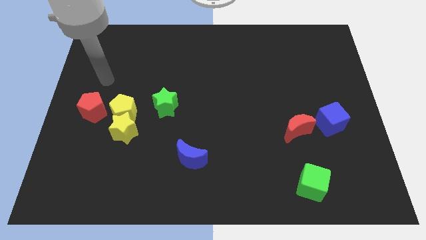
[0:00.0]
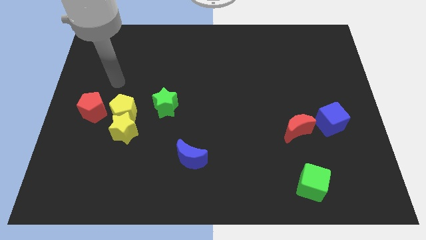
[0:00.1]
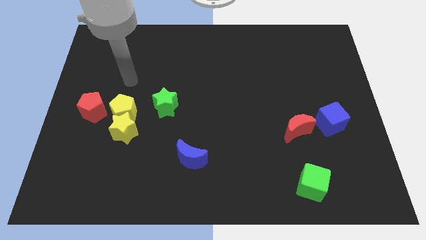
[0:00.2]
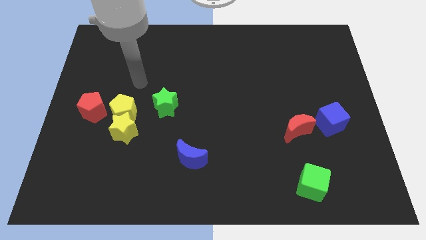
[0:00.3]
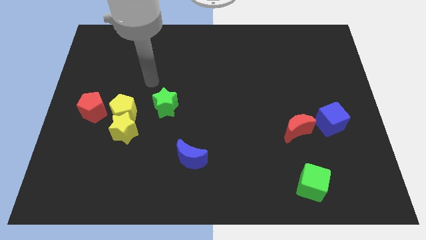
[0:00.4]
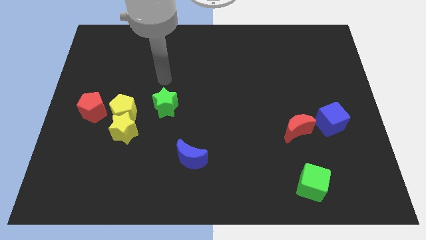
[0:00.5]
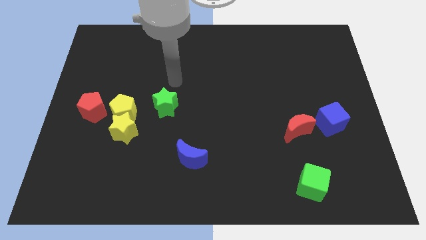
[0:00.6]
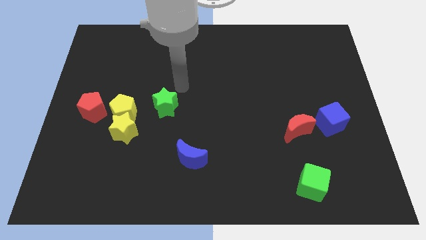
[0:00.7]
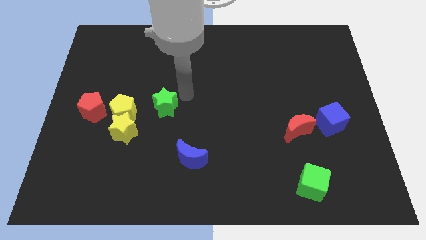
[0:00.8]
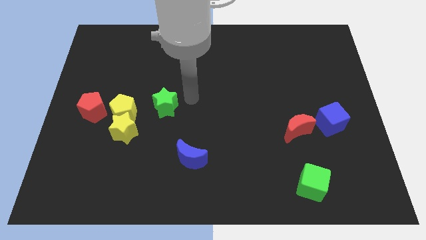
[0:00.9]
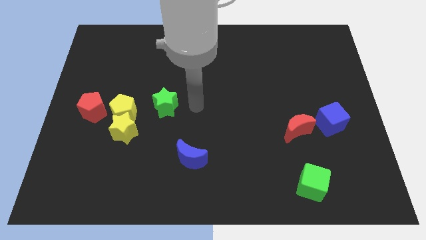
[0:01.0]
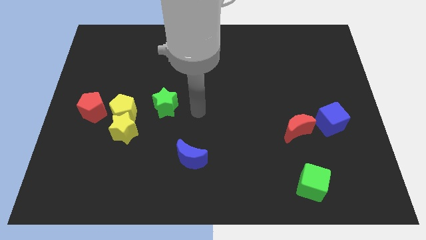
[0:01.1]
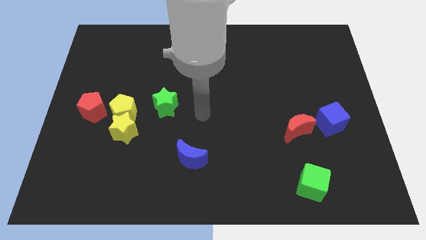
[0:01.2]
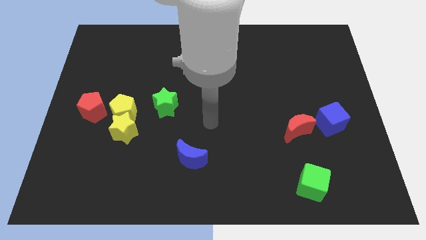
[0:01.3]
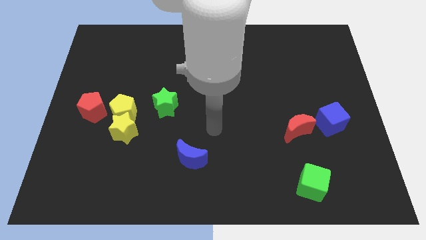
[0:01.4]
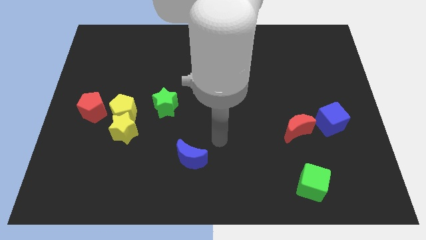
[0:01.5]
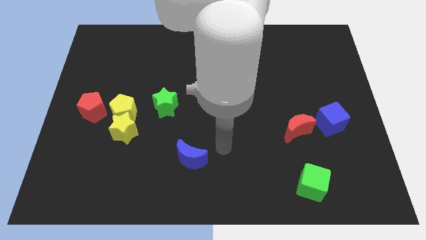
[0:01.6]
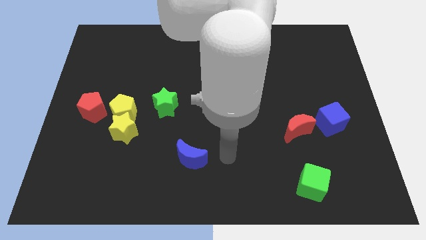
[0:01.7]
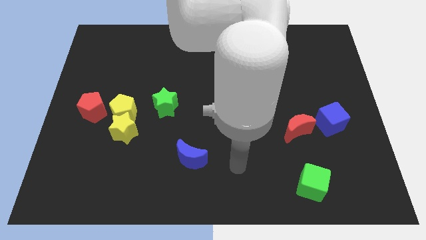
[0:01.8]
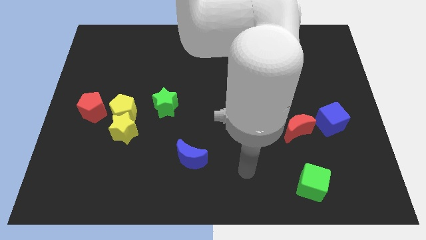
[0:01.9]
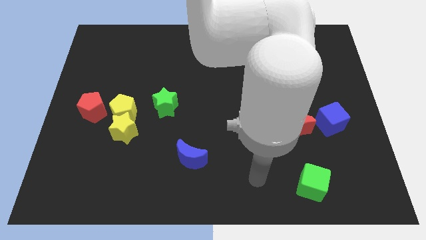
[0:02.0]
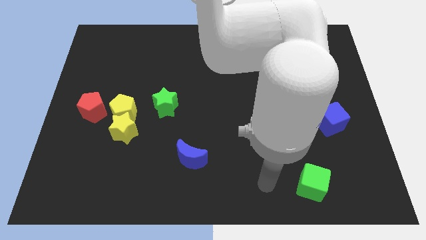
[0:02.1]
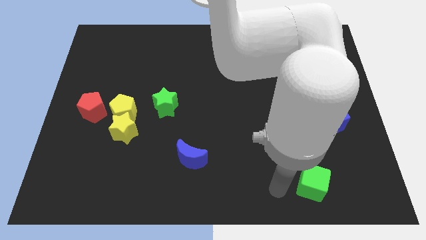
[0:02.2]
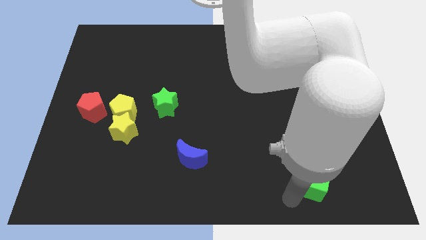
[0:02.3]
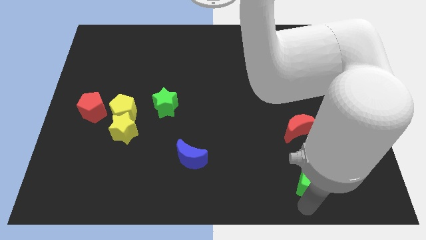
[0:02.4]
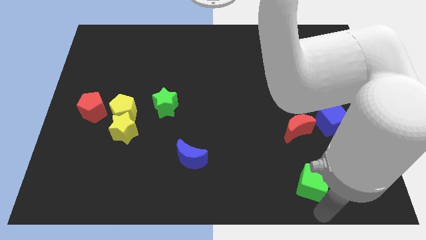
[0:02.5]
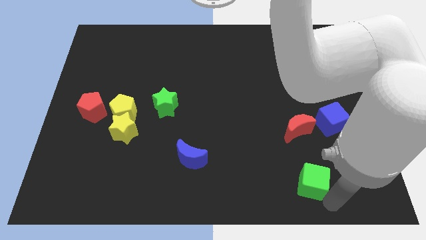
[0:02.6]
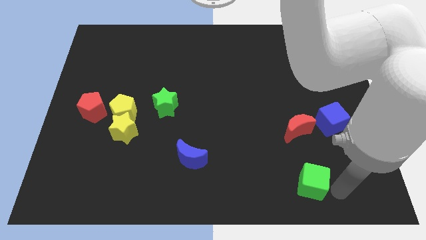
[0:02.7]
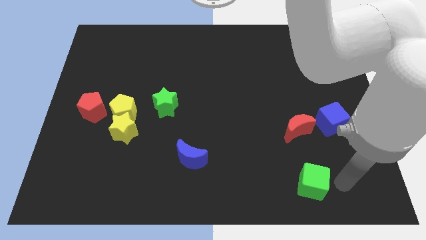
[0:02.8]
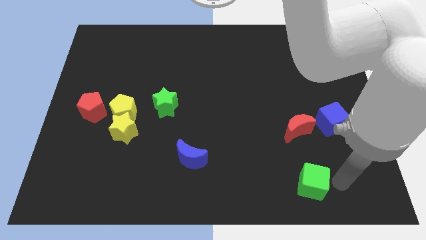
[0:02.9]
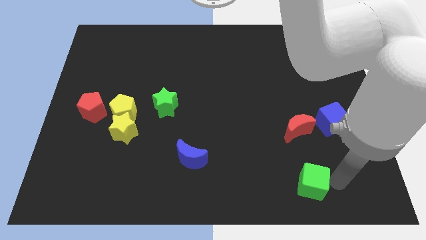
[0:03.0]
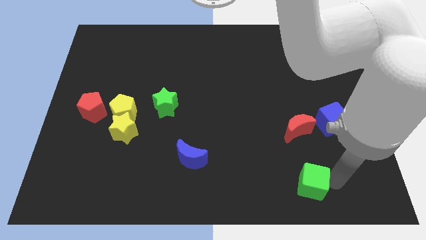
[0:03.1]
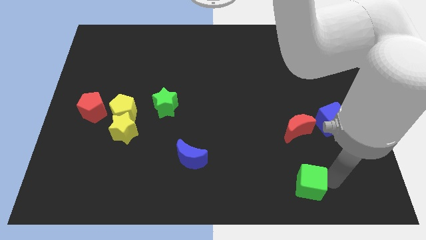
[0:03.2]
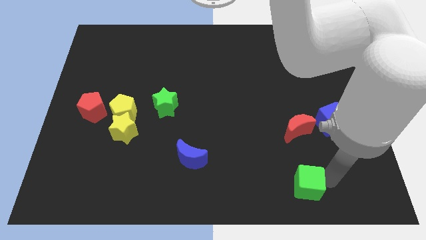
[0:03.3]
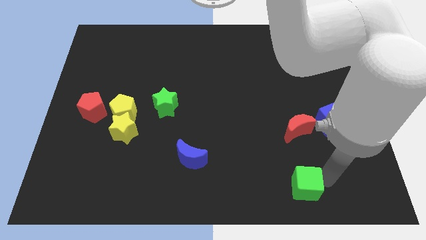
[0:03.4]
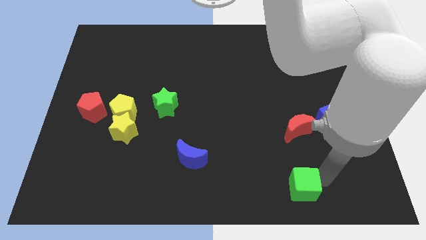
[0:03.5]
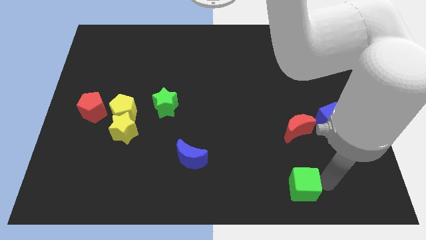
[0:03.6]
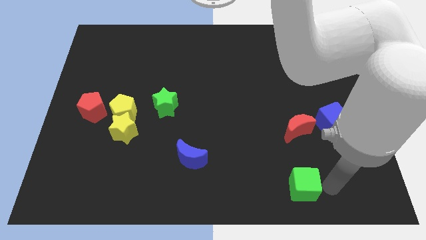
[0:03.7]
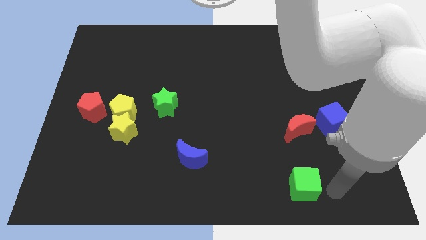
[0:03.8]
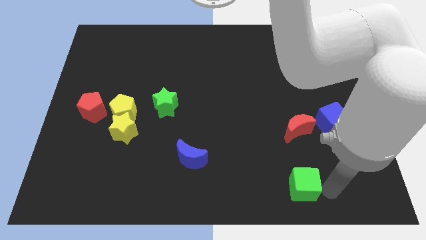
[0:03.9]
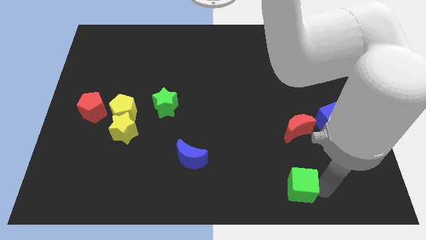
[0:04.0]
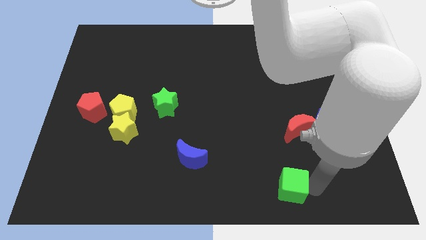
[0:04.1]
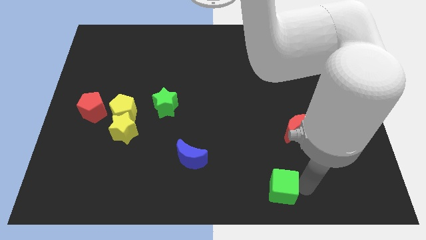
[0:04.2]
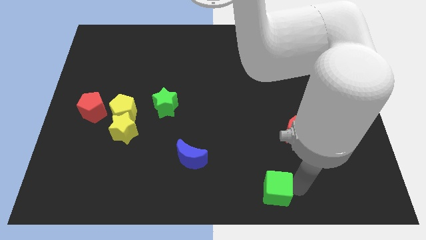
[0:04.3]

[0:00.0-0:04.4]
slide the green cube a little to the left

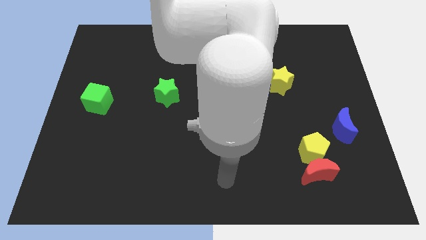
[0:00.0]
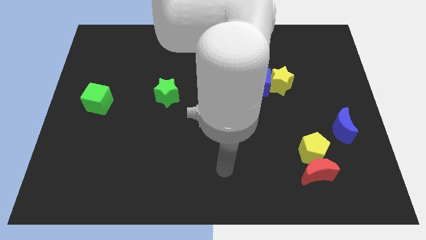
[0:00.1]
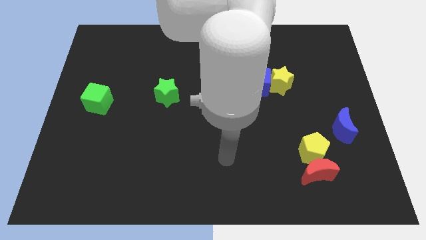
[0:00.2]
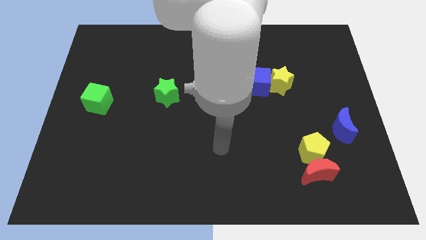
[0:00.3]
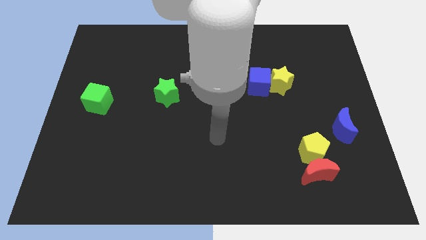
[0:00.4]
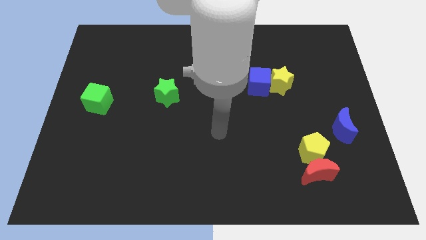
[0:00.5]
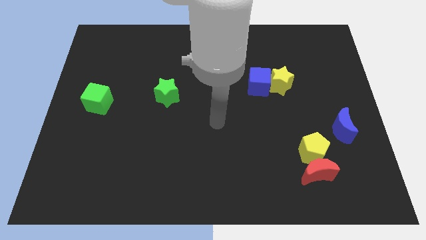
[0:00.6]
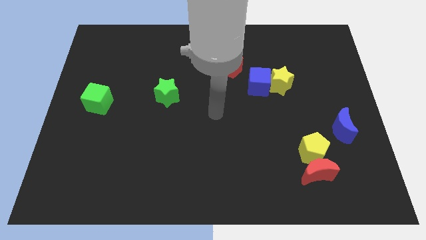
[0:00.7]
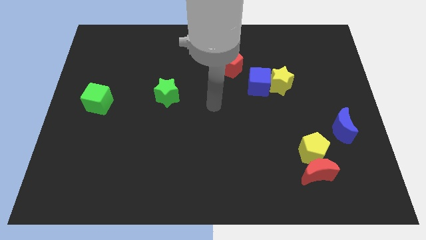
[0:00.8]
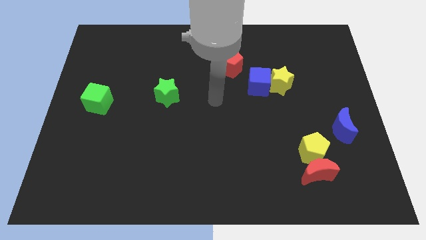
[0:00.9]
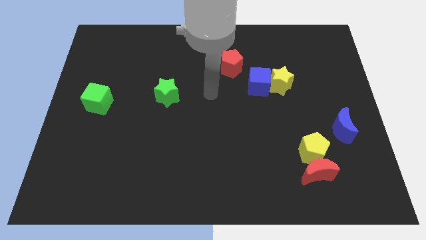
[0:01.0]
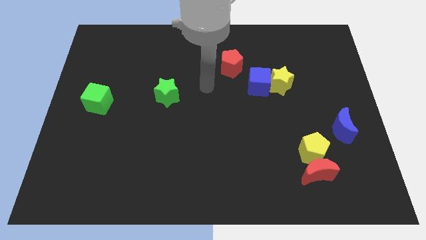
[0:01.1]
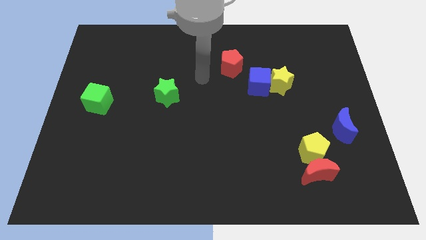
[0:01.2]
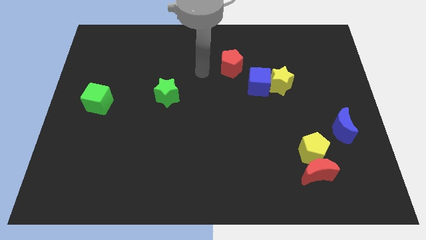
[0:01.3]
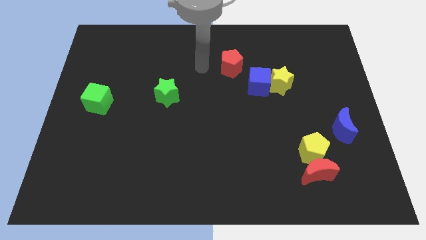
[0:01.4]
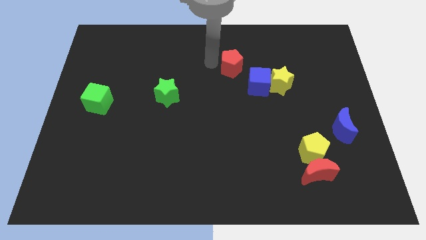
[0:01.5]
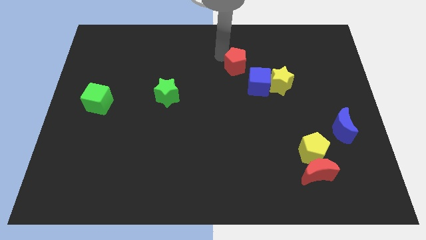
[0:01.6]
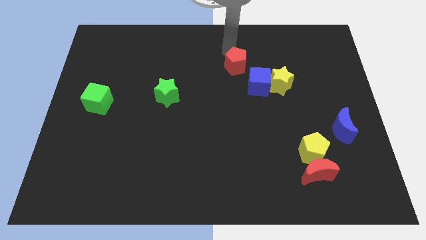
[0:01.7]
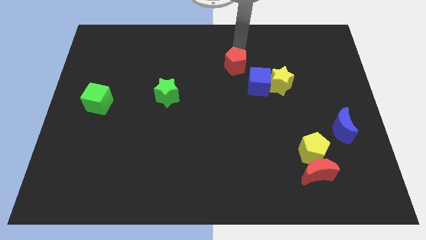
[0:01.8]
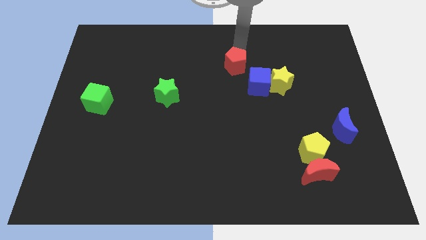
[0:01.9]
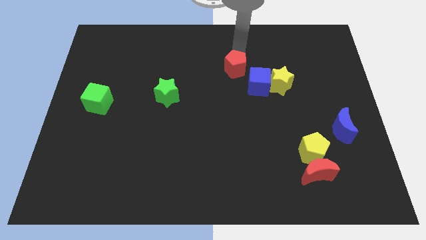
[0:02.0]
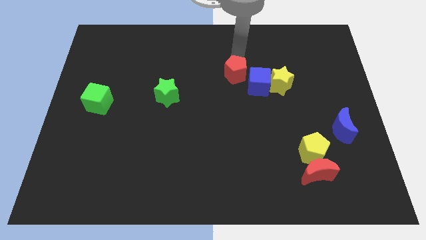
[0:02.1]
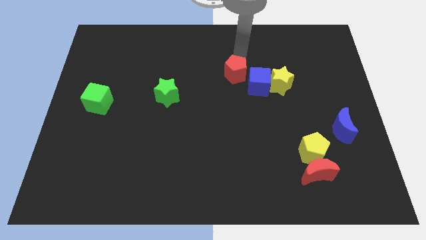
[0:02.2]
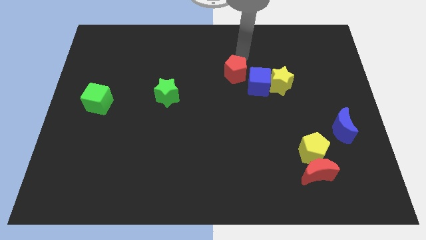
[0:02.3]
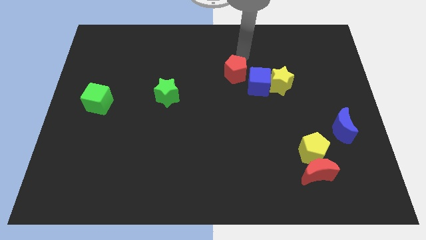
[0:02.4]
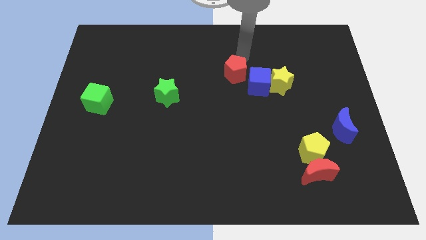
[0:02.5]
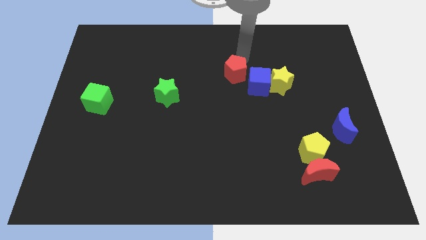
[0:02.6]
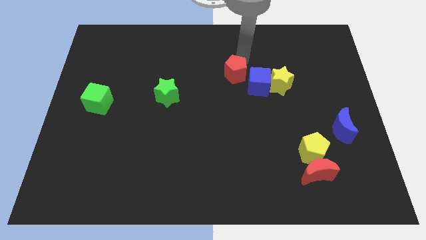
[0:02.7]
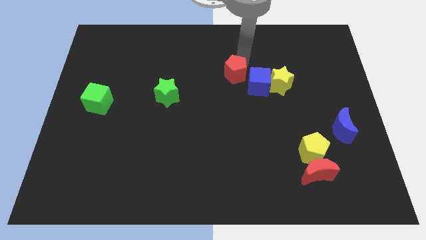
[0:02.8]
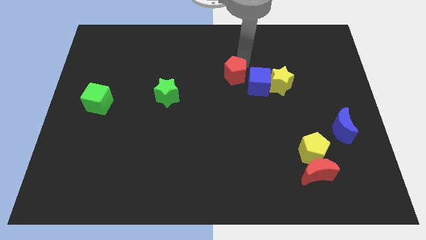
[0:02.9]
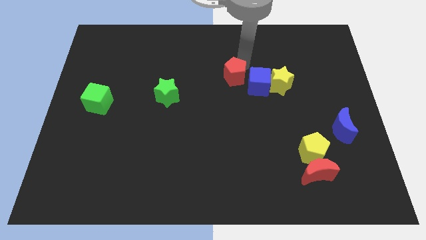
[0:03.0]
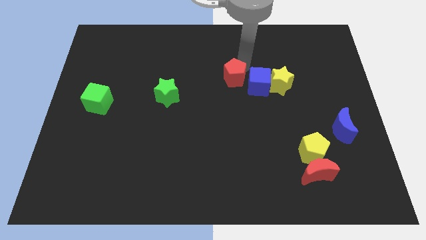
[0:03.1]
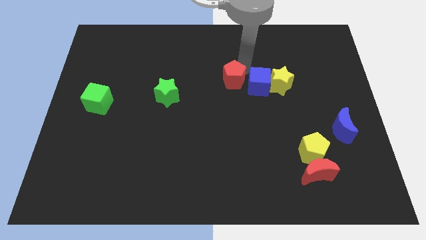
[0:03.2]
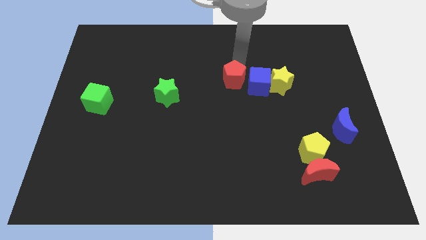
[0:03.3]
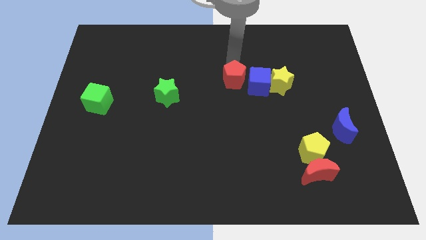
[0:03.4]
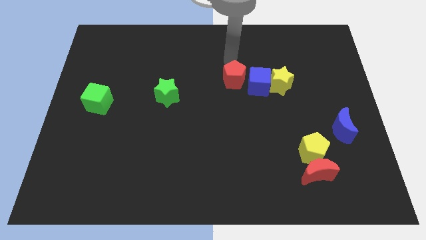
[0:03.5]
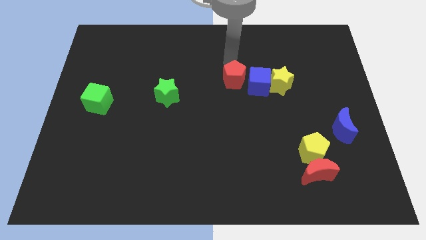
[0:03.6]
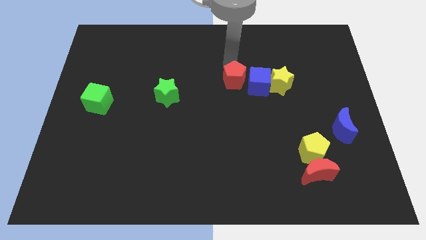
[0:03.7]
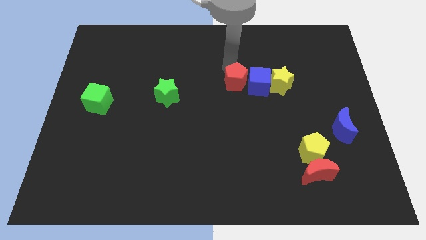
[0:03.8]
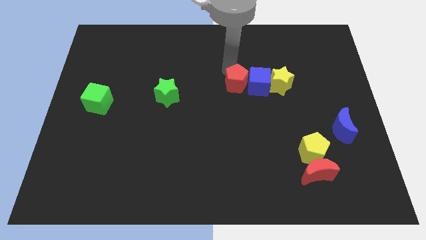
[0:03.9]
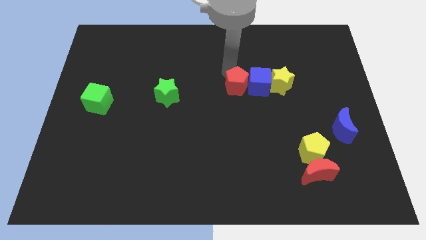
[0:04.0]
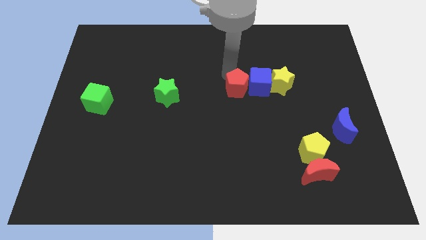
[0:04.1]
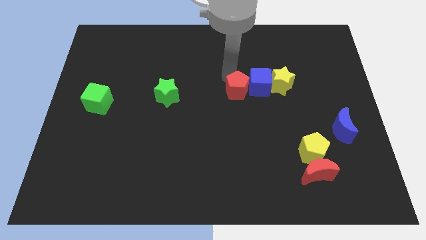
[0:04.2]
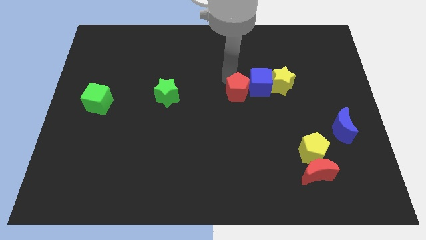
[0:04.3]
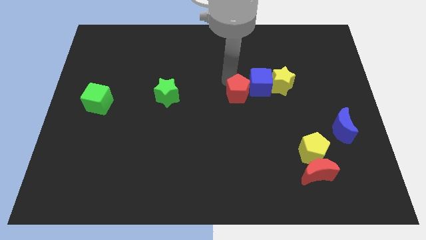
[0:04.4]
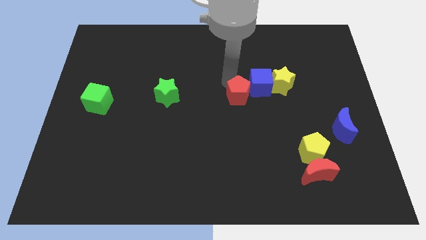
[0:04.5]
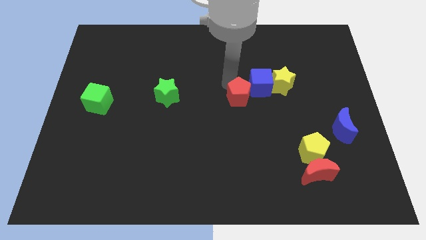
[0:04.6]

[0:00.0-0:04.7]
slightly move the red pentagon down and to the right diagonally
